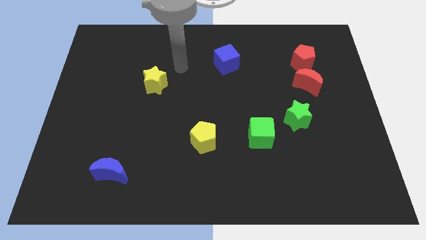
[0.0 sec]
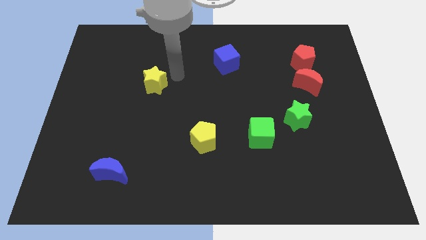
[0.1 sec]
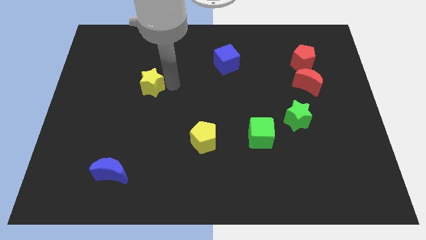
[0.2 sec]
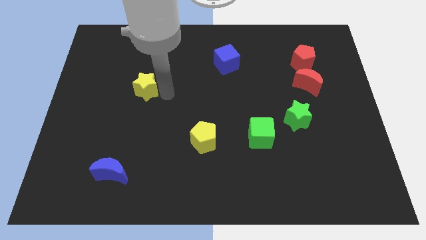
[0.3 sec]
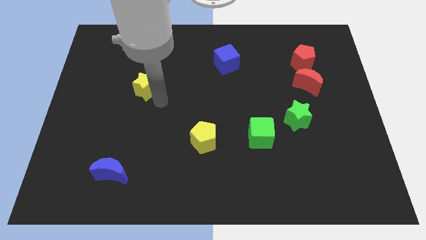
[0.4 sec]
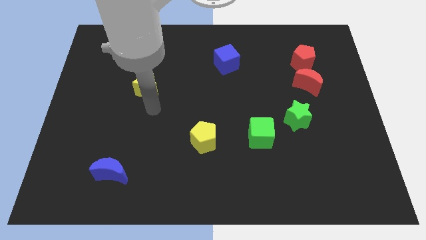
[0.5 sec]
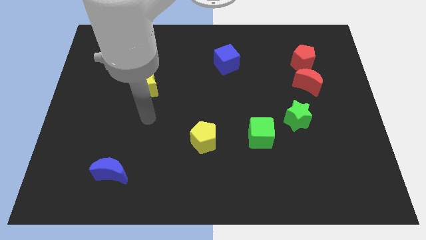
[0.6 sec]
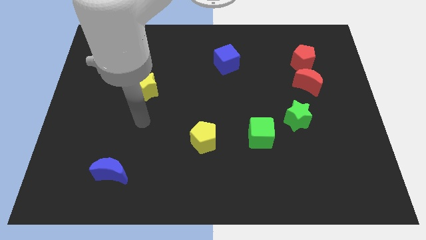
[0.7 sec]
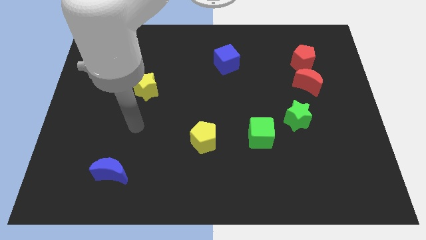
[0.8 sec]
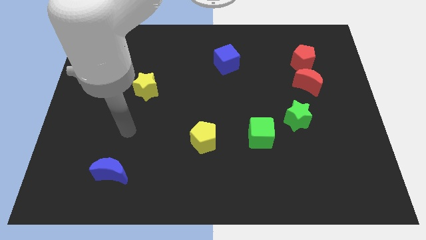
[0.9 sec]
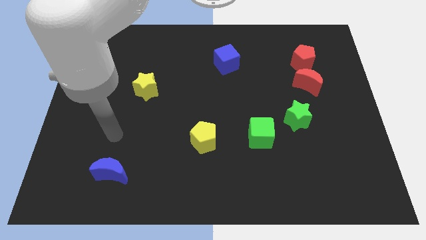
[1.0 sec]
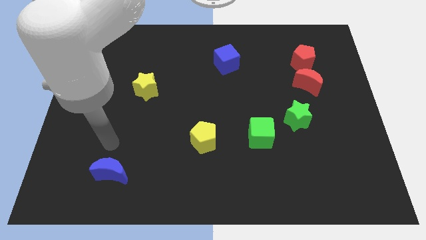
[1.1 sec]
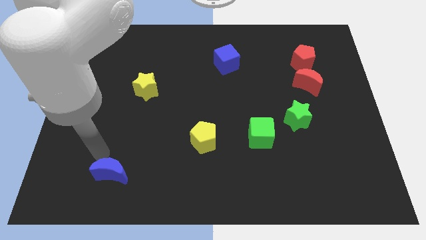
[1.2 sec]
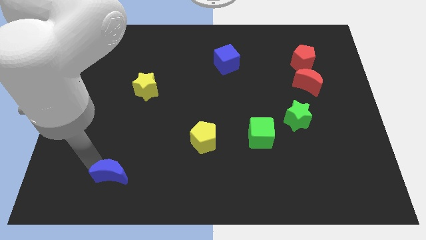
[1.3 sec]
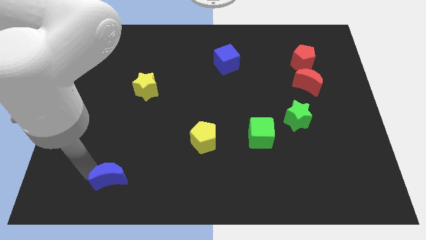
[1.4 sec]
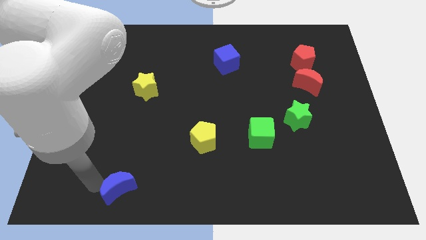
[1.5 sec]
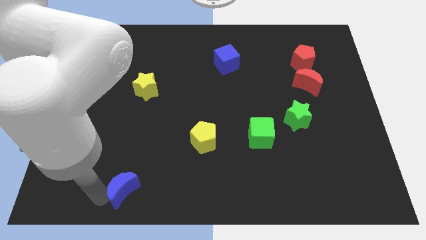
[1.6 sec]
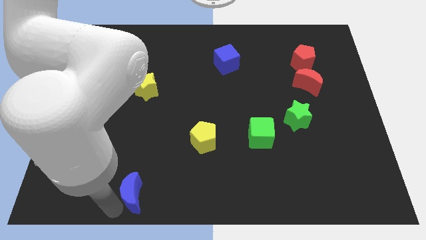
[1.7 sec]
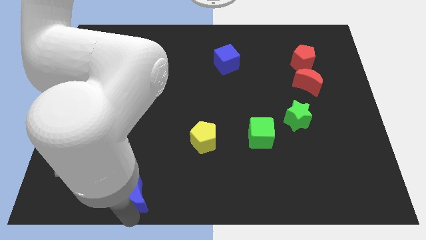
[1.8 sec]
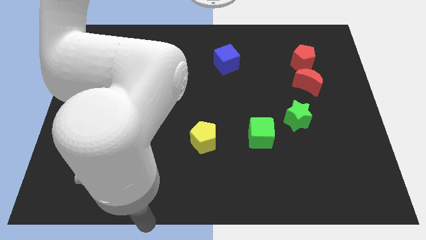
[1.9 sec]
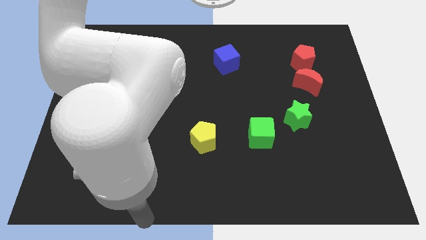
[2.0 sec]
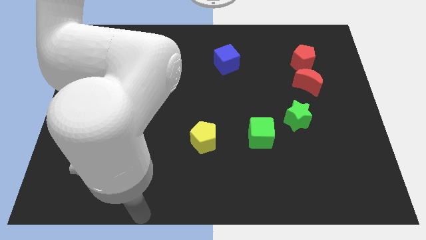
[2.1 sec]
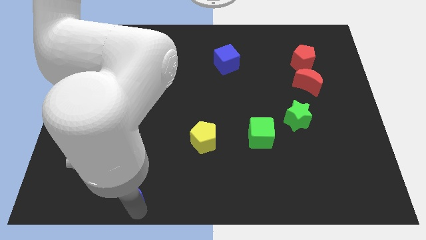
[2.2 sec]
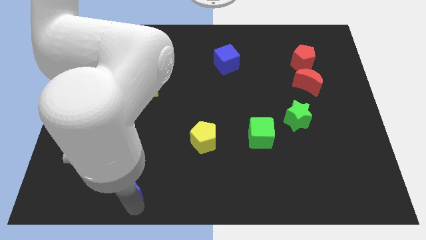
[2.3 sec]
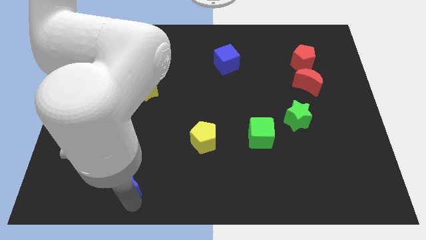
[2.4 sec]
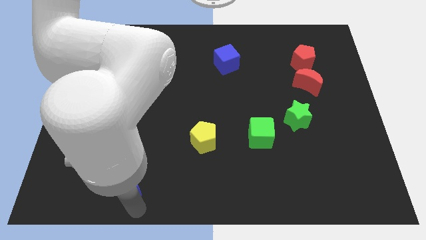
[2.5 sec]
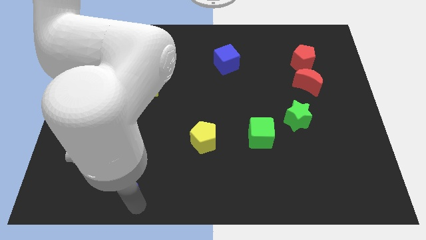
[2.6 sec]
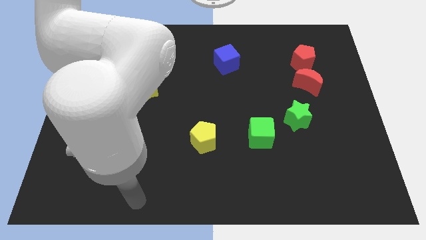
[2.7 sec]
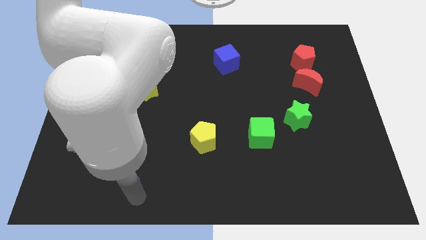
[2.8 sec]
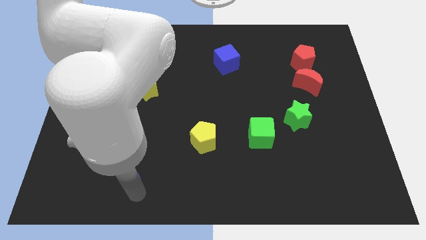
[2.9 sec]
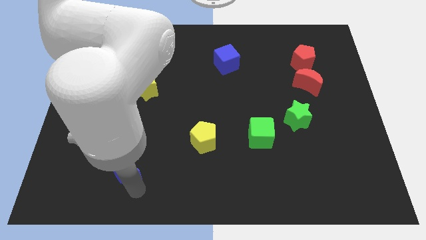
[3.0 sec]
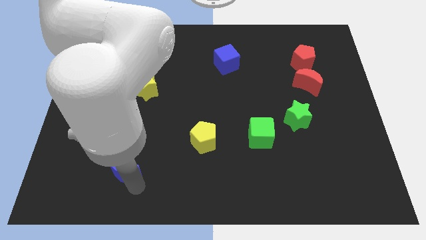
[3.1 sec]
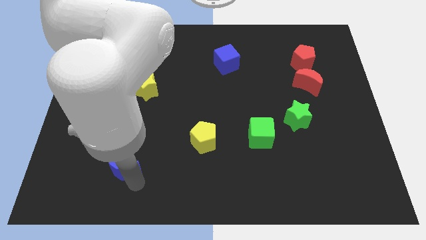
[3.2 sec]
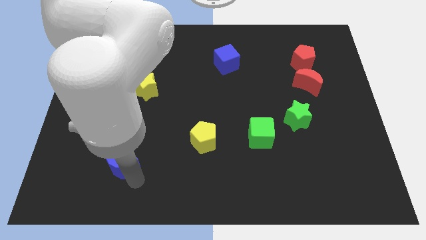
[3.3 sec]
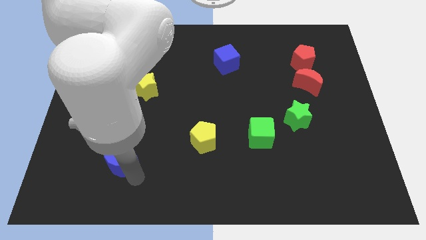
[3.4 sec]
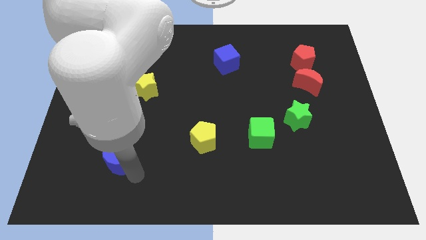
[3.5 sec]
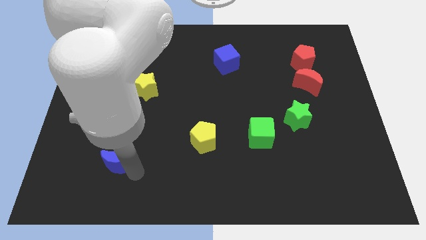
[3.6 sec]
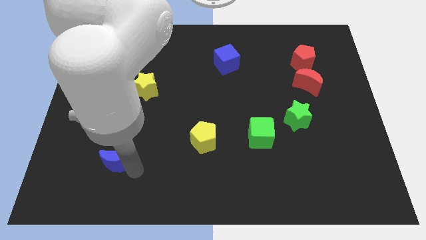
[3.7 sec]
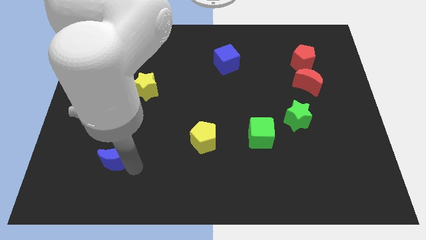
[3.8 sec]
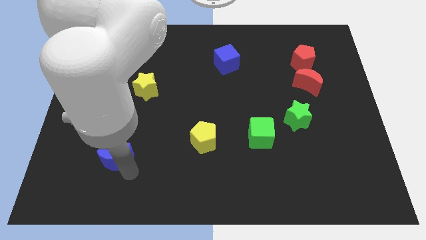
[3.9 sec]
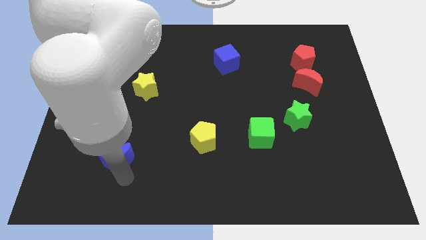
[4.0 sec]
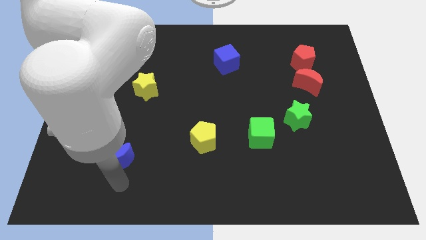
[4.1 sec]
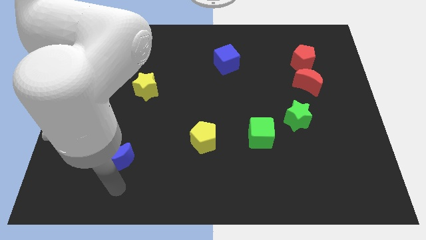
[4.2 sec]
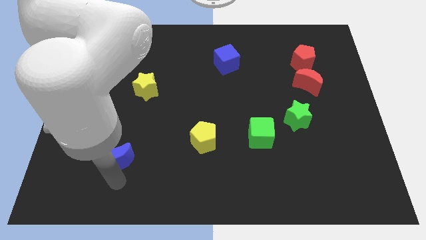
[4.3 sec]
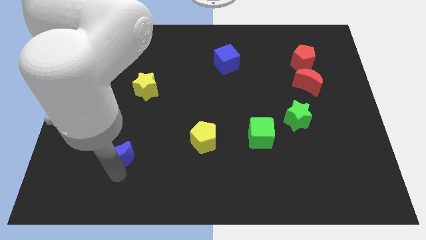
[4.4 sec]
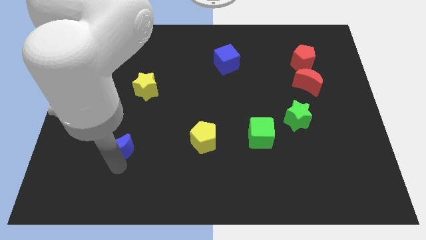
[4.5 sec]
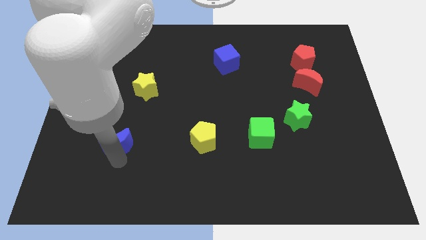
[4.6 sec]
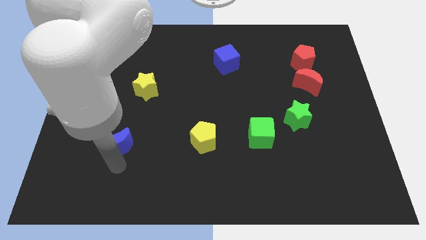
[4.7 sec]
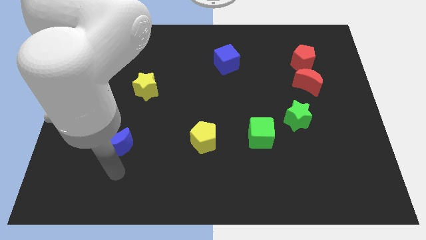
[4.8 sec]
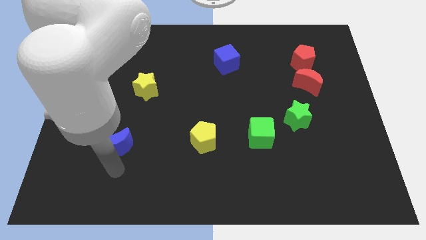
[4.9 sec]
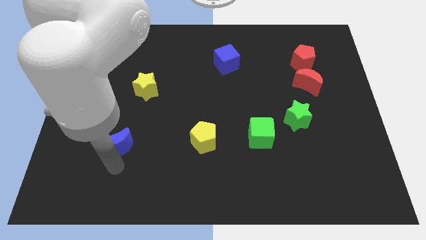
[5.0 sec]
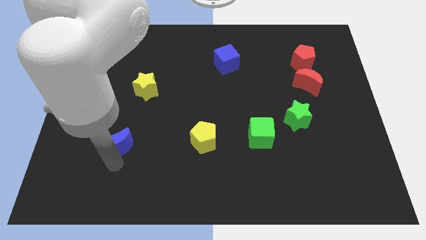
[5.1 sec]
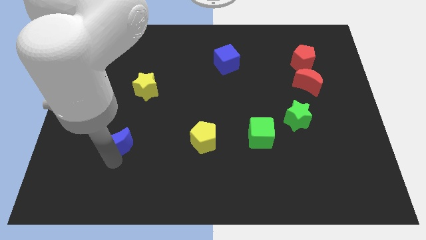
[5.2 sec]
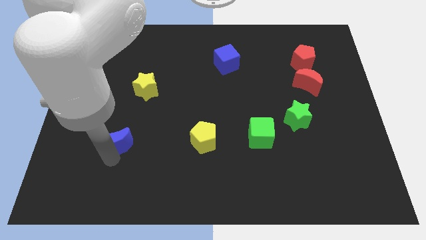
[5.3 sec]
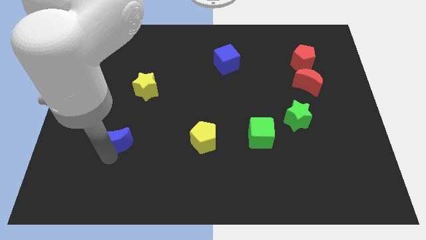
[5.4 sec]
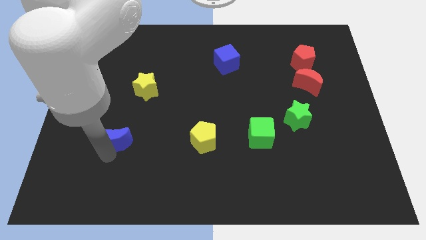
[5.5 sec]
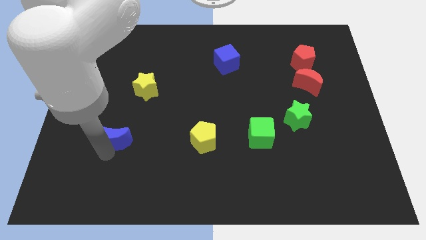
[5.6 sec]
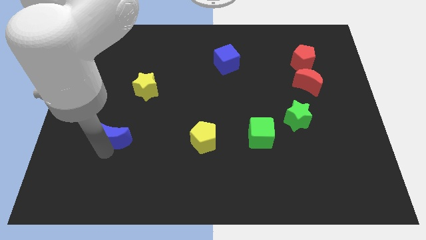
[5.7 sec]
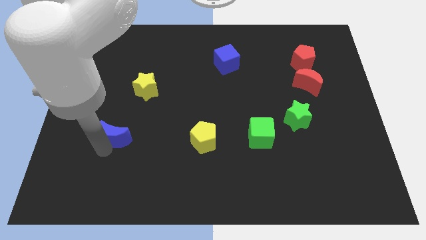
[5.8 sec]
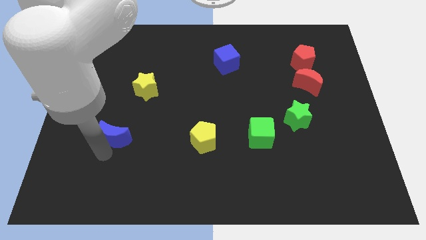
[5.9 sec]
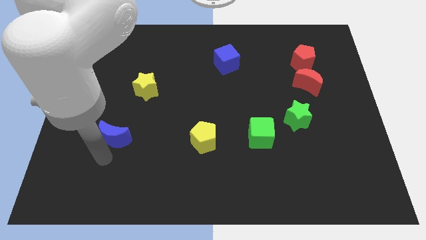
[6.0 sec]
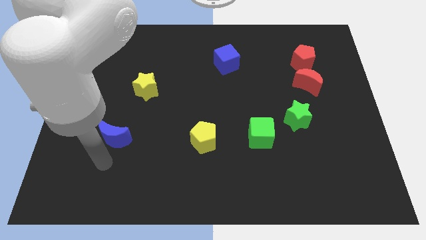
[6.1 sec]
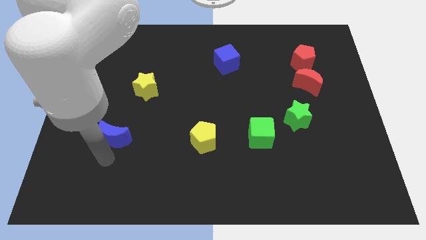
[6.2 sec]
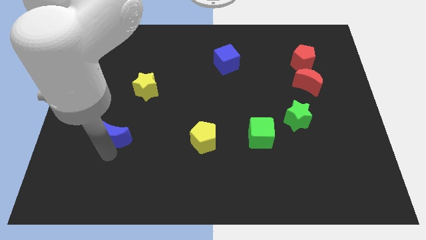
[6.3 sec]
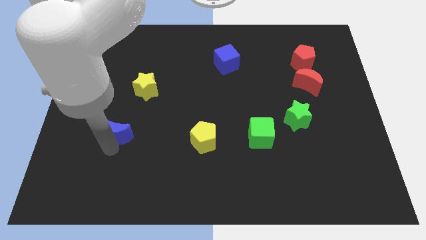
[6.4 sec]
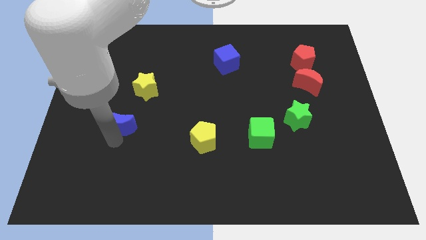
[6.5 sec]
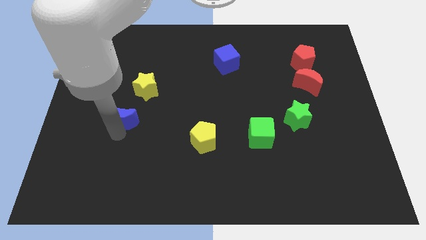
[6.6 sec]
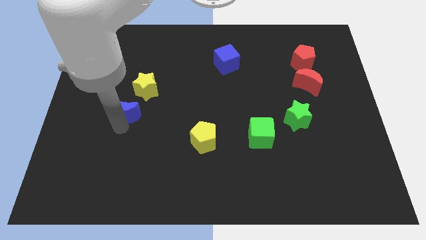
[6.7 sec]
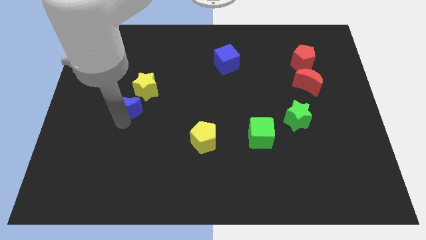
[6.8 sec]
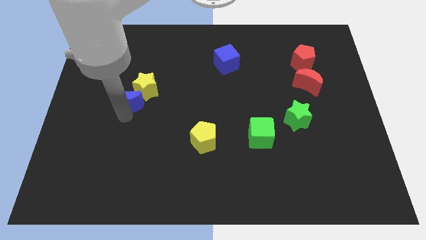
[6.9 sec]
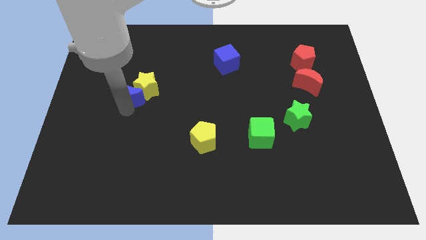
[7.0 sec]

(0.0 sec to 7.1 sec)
push the blue moon up

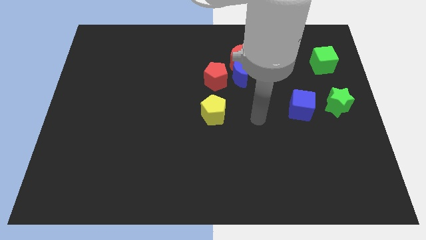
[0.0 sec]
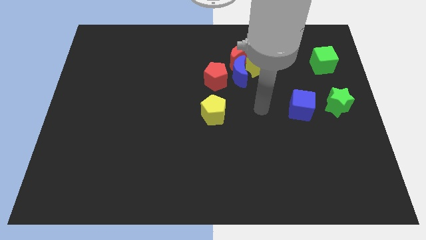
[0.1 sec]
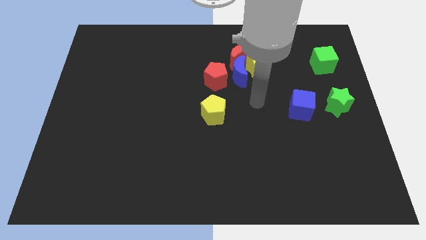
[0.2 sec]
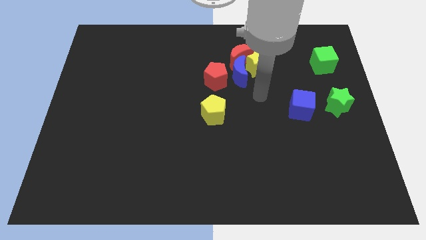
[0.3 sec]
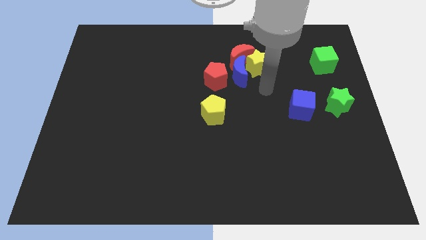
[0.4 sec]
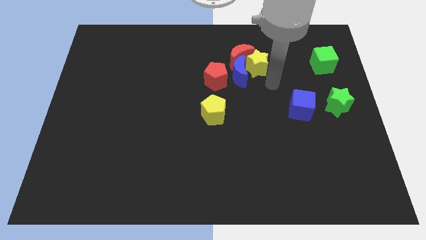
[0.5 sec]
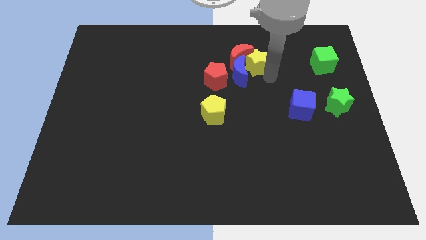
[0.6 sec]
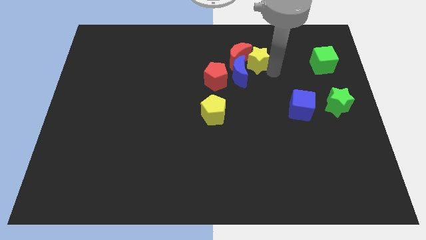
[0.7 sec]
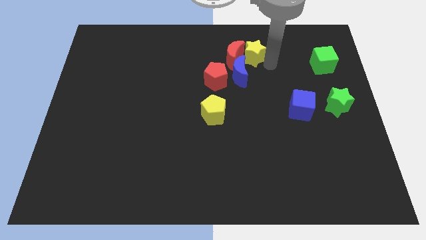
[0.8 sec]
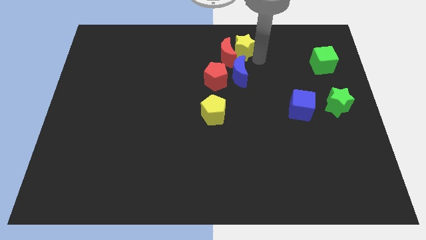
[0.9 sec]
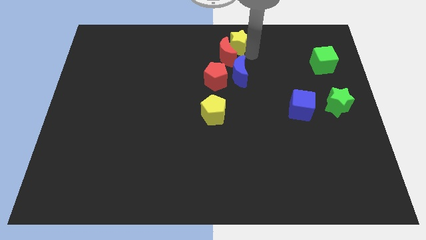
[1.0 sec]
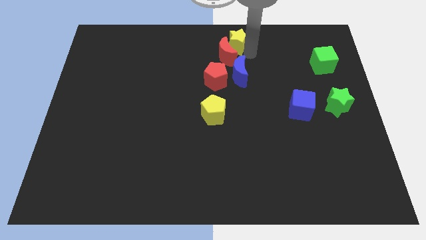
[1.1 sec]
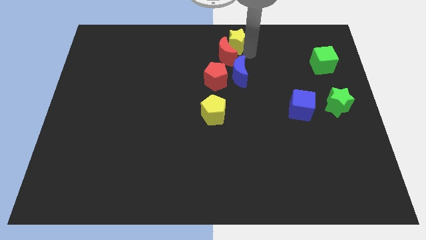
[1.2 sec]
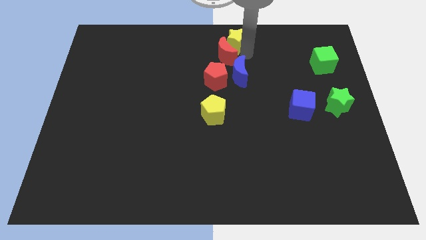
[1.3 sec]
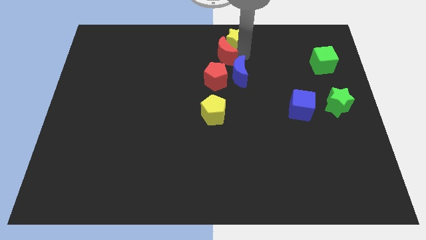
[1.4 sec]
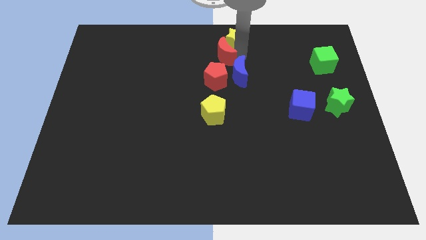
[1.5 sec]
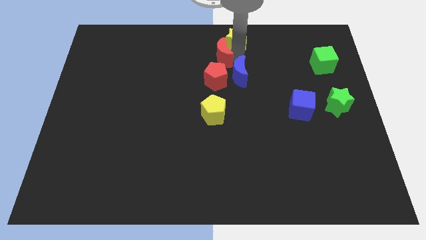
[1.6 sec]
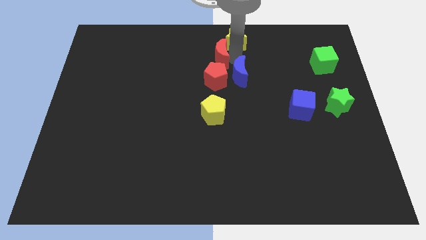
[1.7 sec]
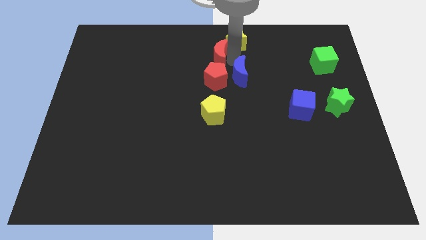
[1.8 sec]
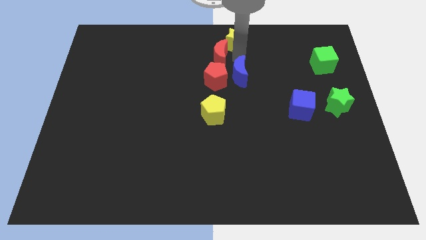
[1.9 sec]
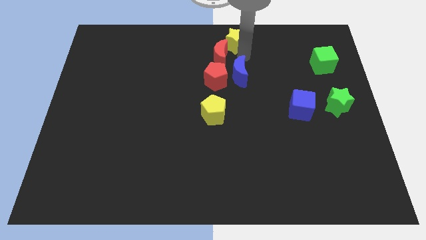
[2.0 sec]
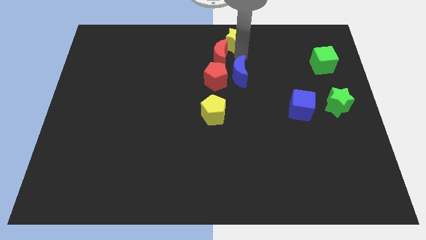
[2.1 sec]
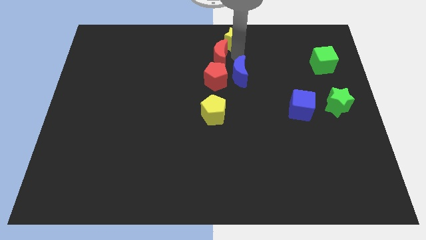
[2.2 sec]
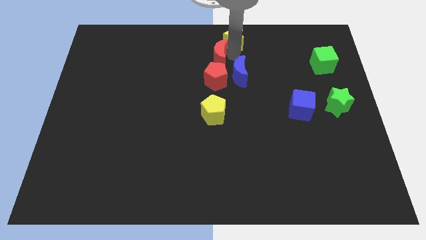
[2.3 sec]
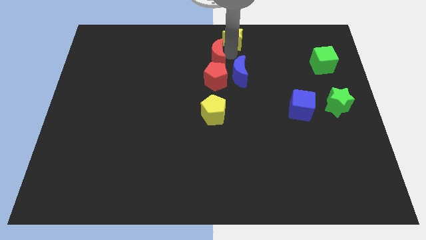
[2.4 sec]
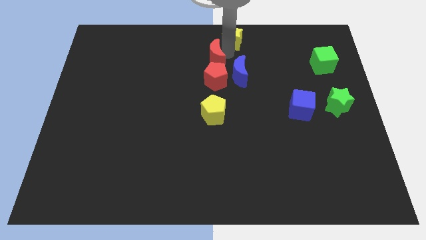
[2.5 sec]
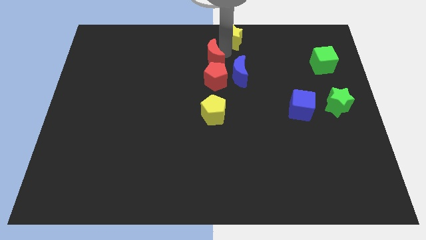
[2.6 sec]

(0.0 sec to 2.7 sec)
push the red moon a little left
